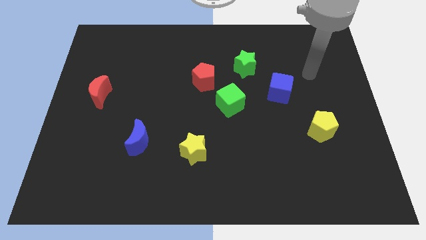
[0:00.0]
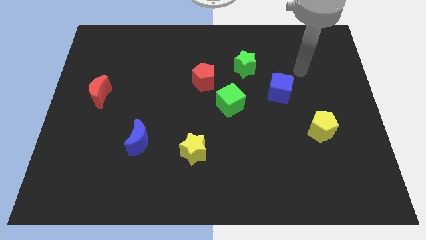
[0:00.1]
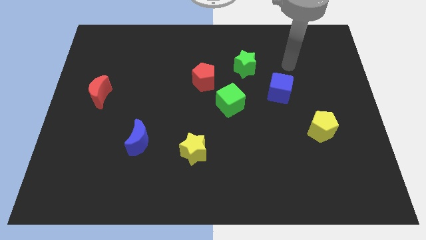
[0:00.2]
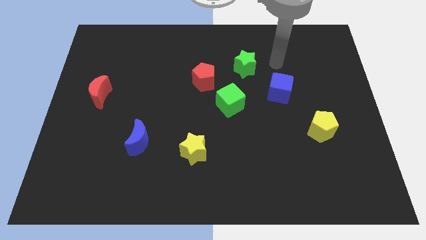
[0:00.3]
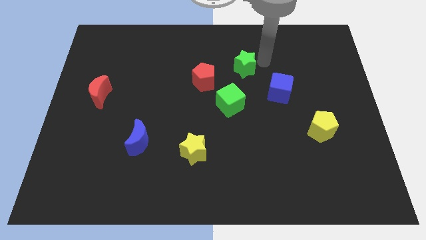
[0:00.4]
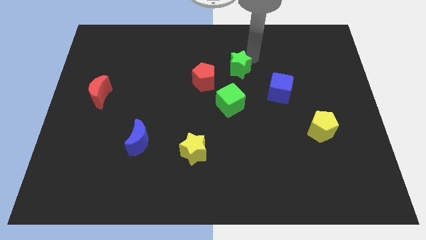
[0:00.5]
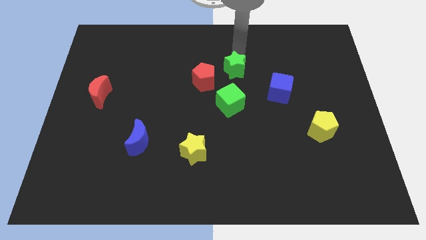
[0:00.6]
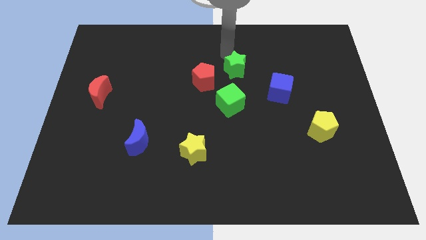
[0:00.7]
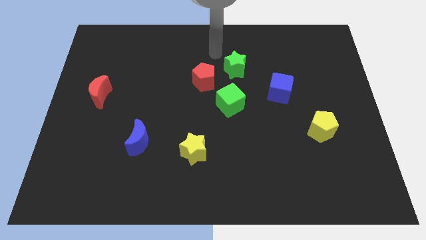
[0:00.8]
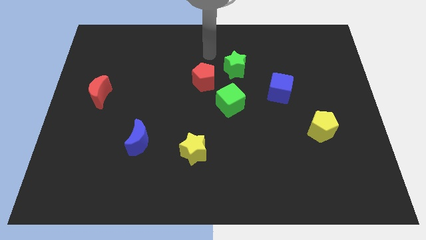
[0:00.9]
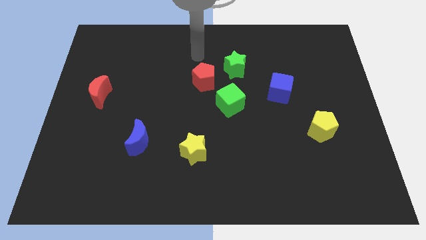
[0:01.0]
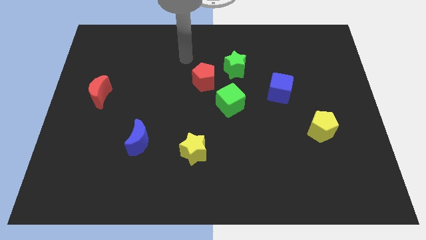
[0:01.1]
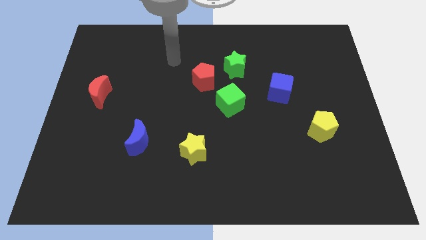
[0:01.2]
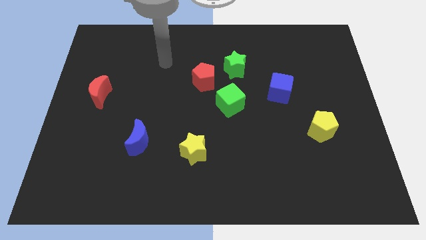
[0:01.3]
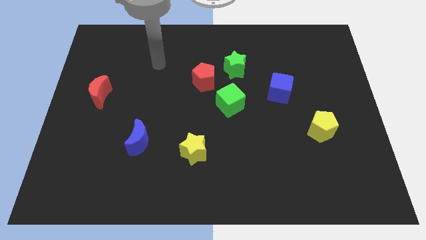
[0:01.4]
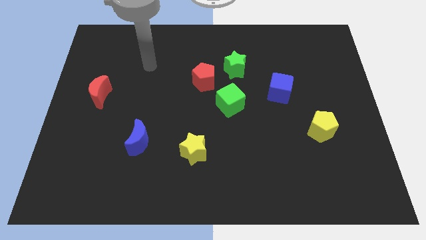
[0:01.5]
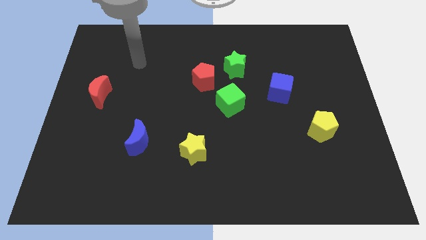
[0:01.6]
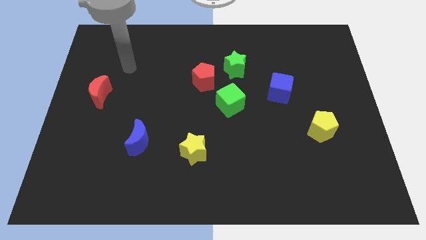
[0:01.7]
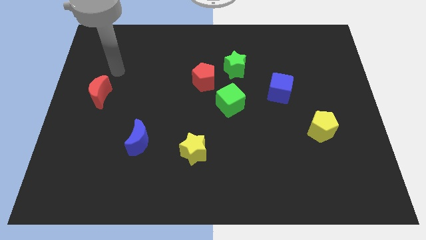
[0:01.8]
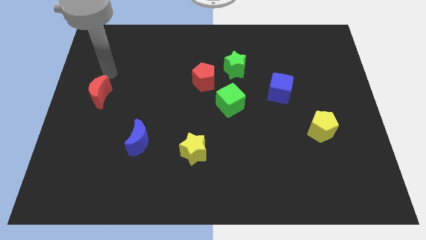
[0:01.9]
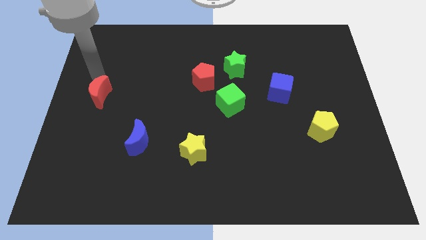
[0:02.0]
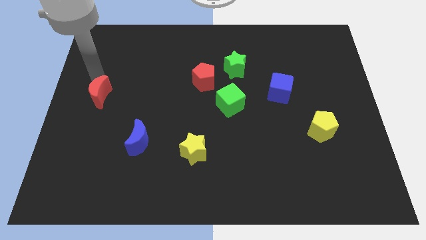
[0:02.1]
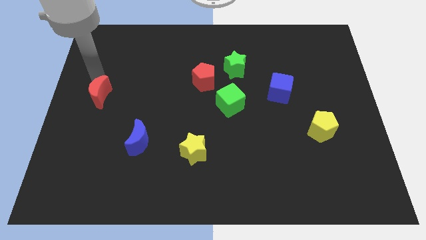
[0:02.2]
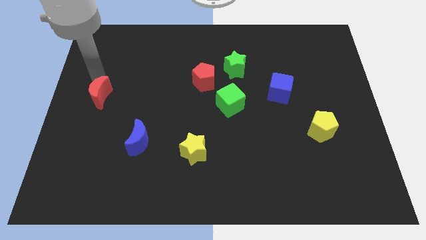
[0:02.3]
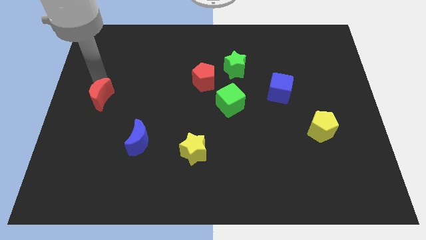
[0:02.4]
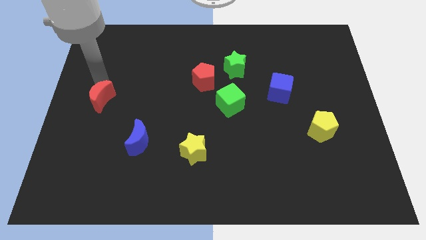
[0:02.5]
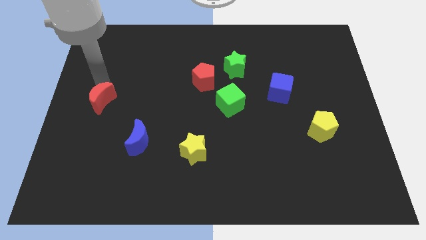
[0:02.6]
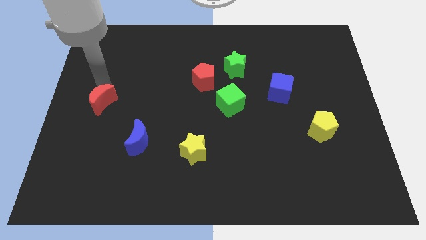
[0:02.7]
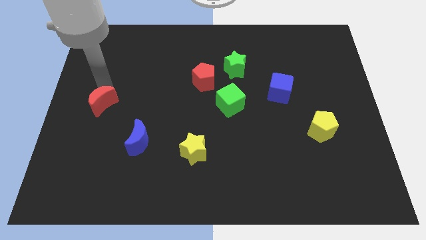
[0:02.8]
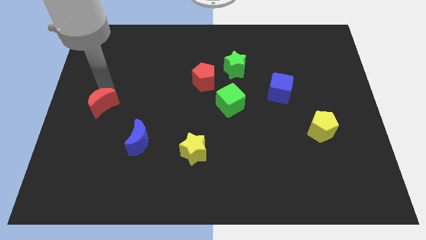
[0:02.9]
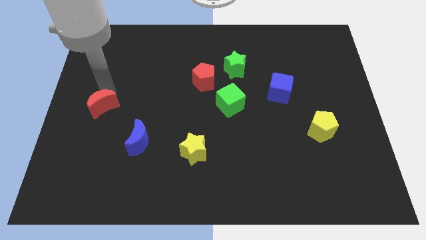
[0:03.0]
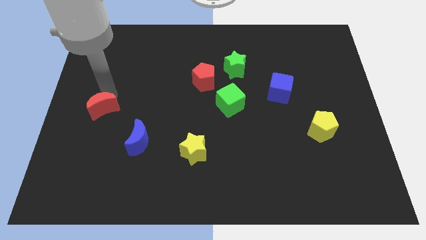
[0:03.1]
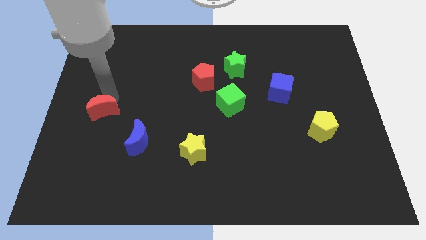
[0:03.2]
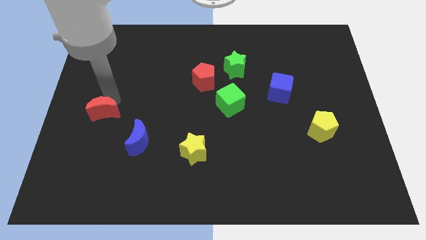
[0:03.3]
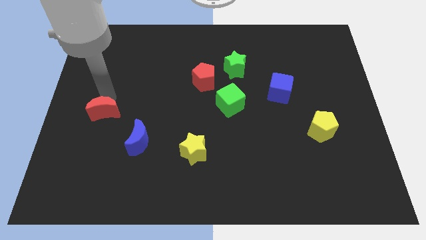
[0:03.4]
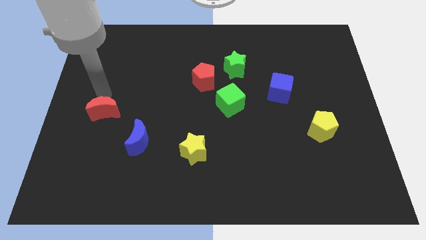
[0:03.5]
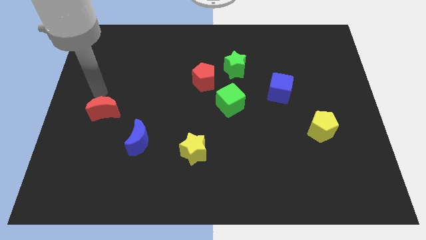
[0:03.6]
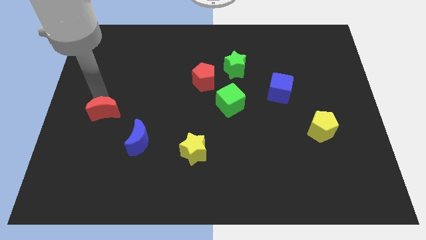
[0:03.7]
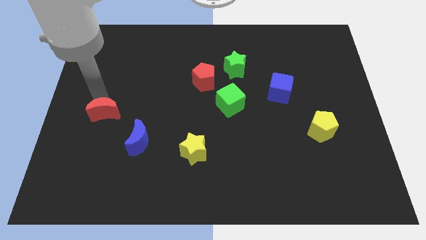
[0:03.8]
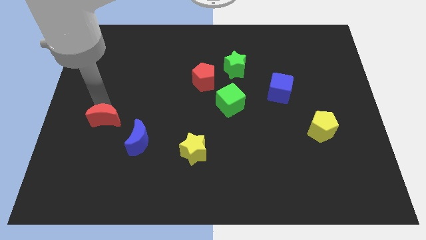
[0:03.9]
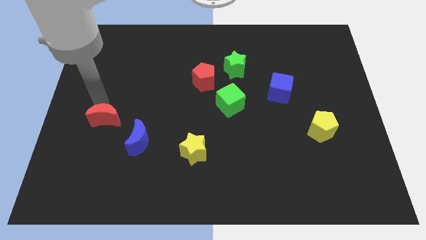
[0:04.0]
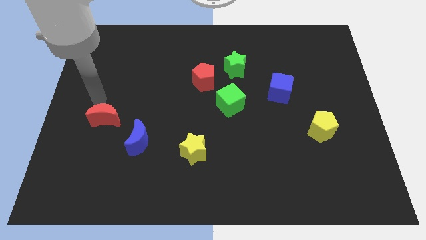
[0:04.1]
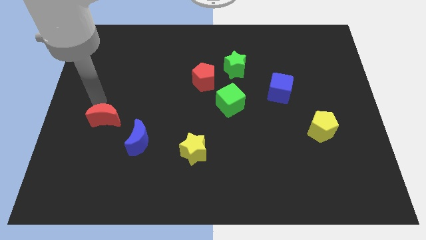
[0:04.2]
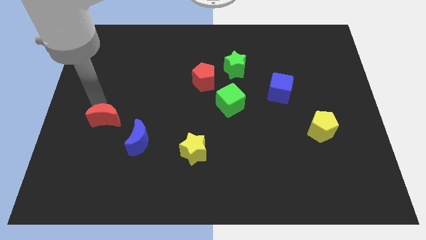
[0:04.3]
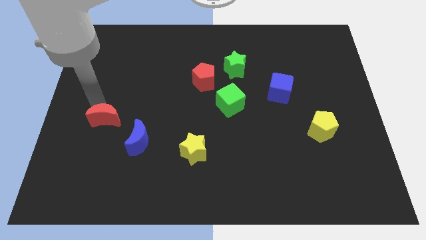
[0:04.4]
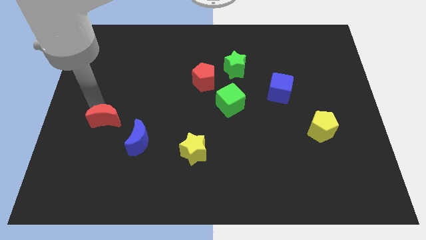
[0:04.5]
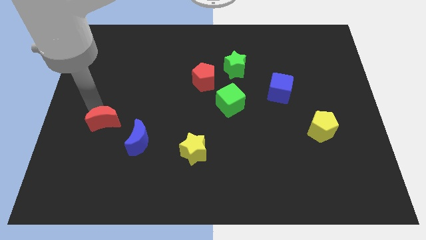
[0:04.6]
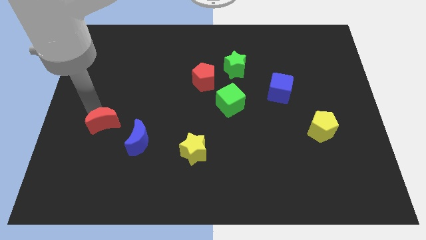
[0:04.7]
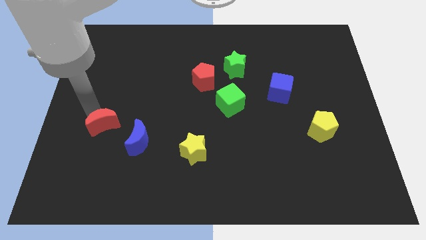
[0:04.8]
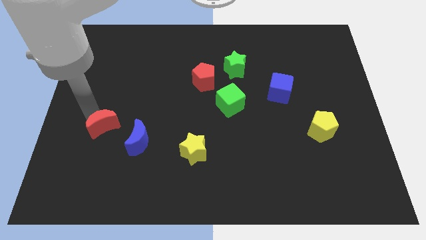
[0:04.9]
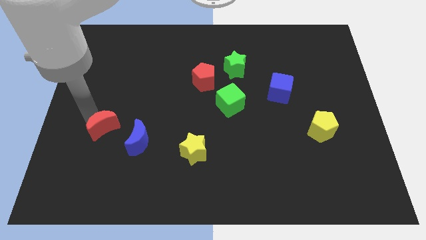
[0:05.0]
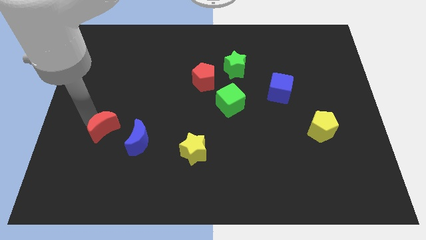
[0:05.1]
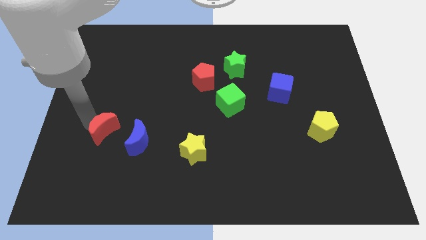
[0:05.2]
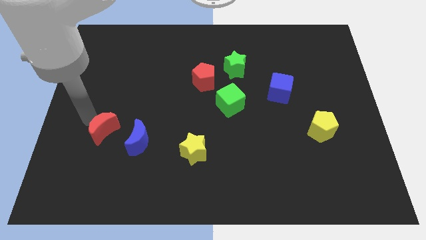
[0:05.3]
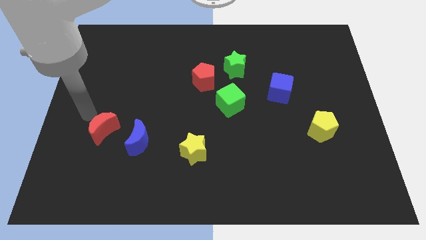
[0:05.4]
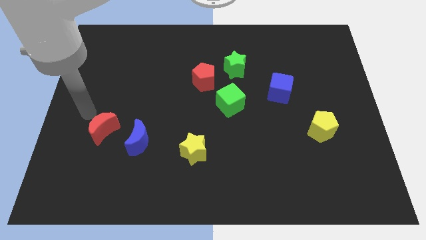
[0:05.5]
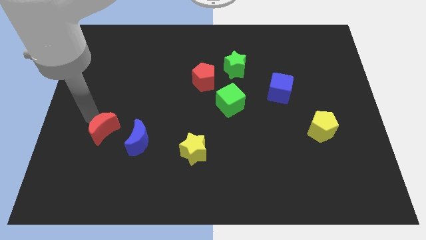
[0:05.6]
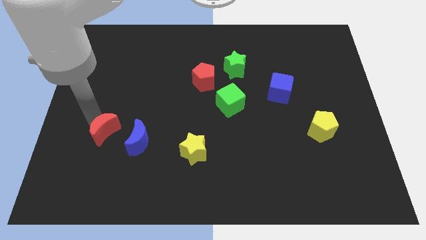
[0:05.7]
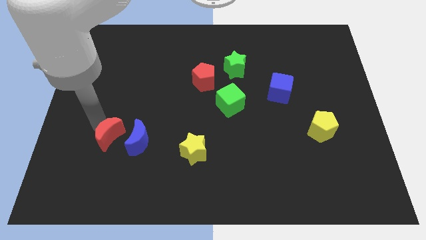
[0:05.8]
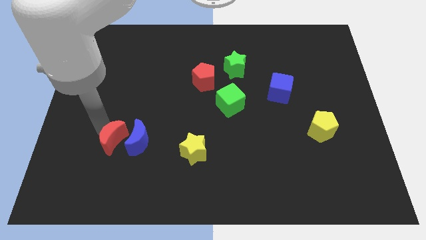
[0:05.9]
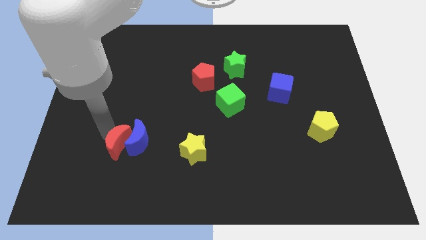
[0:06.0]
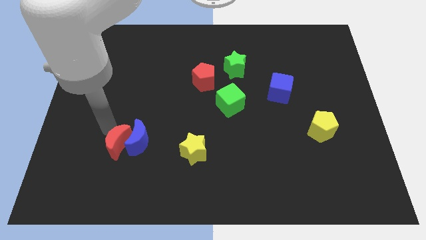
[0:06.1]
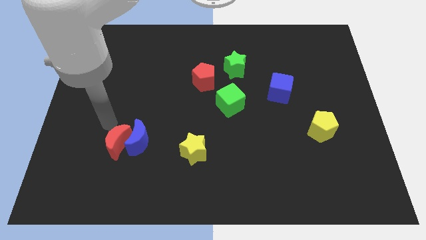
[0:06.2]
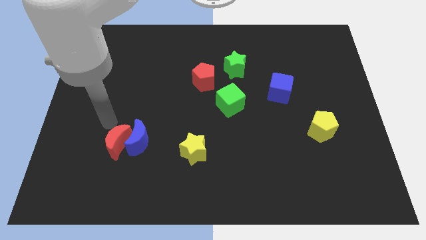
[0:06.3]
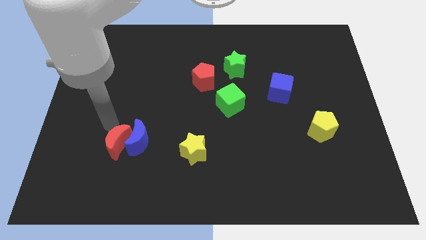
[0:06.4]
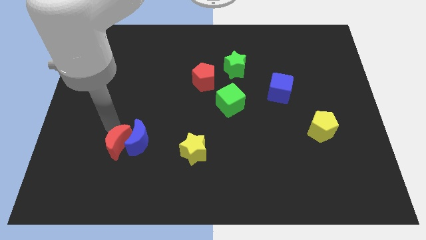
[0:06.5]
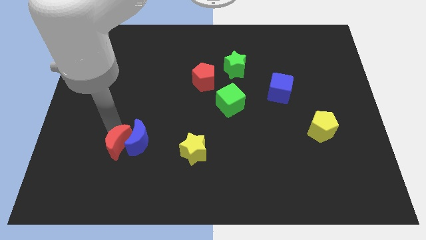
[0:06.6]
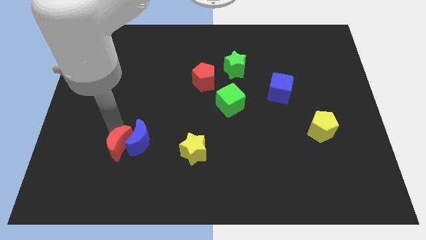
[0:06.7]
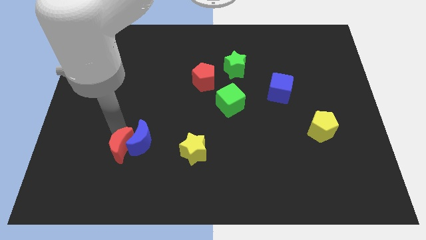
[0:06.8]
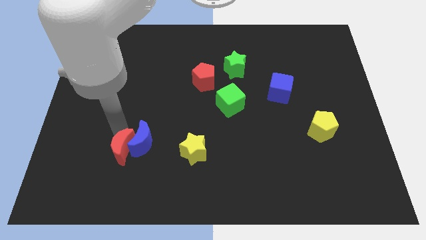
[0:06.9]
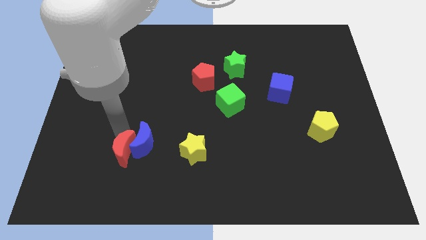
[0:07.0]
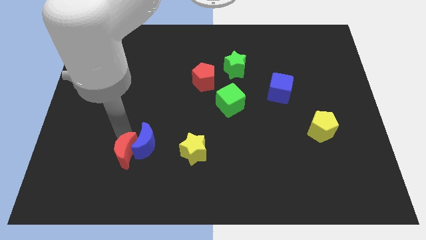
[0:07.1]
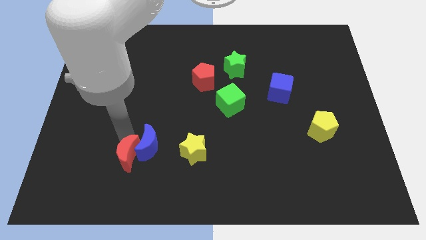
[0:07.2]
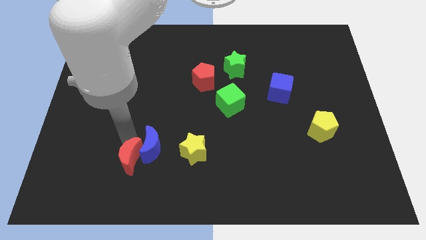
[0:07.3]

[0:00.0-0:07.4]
put the red moon below the blue moon
